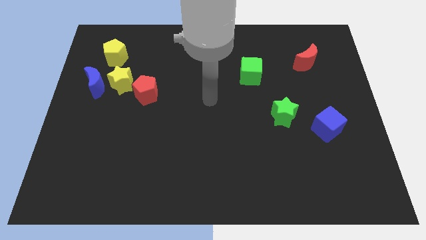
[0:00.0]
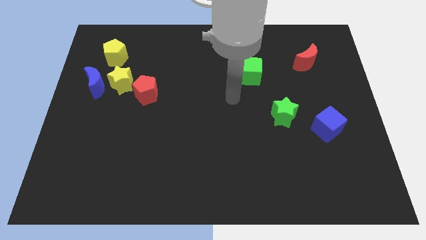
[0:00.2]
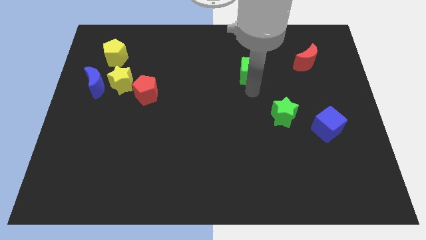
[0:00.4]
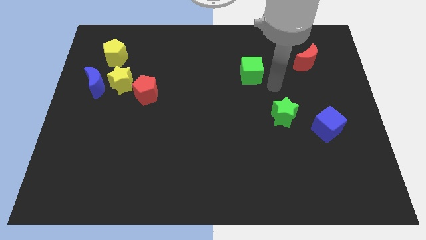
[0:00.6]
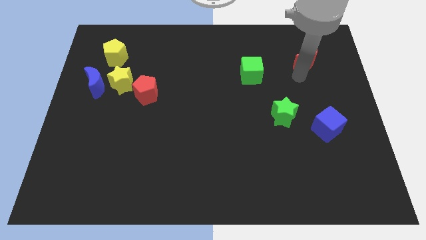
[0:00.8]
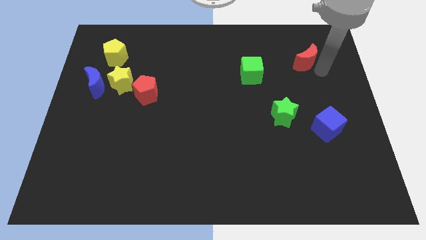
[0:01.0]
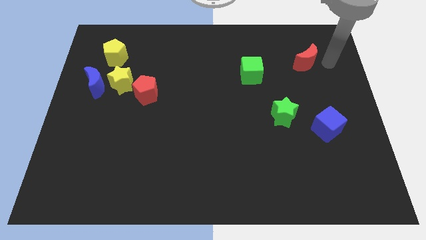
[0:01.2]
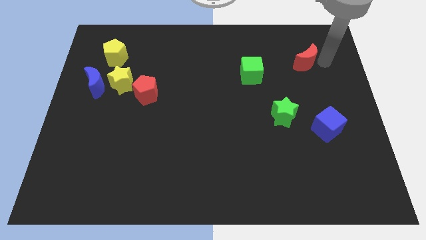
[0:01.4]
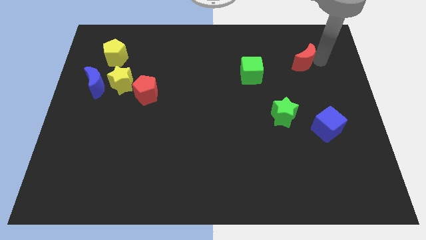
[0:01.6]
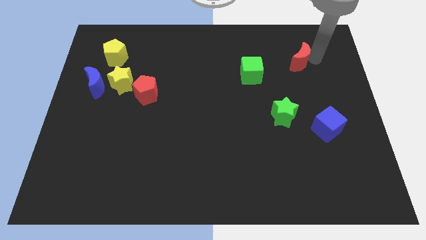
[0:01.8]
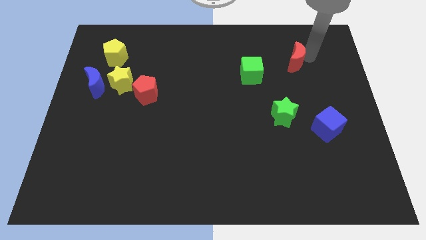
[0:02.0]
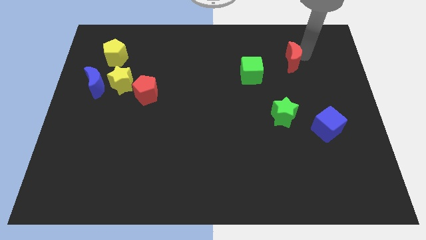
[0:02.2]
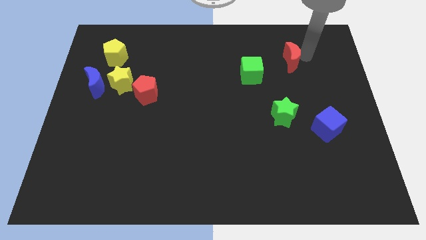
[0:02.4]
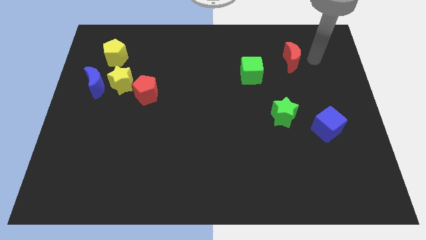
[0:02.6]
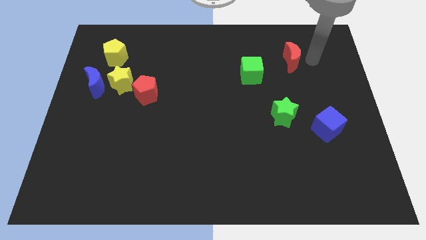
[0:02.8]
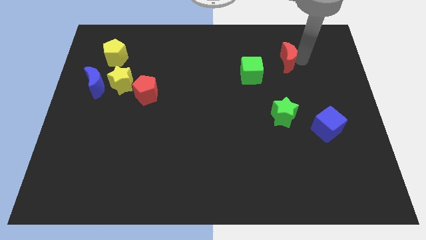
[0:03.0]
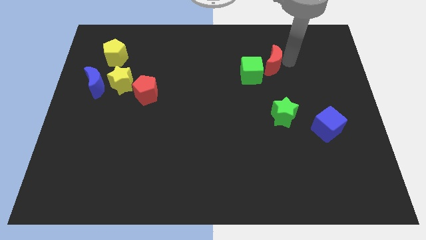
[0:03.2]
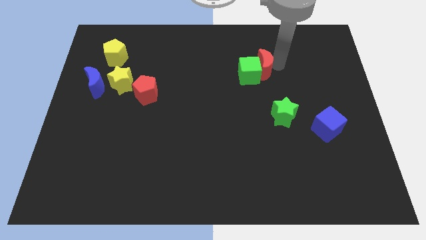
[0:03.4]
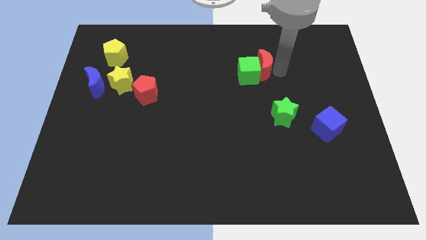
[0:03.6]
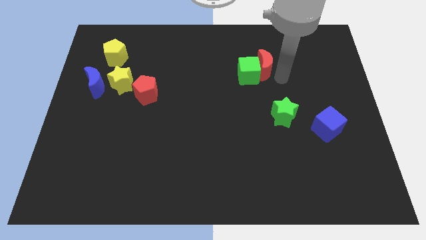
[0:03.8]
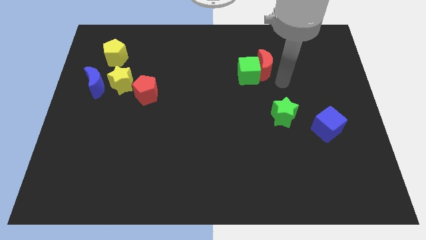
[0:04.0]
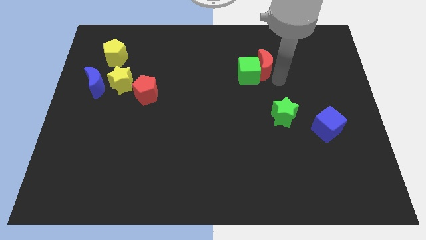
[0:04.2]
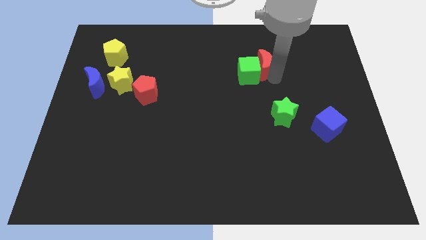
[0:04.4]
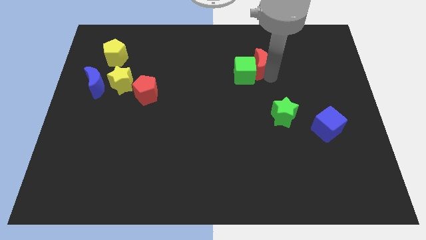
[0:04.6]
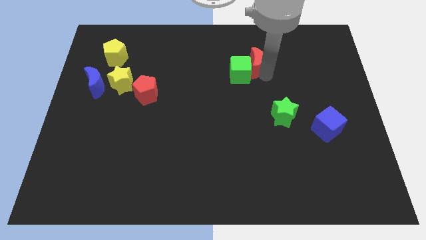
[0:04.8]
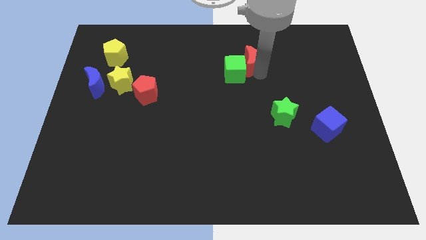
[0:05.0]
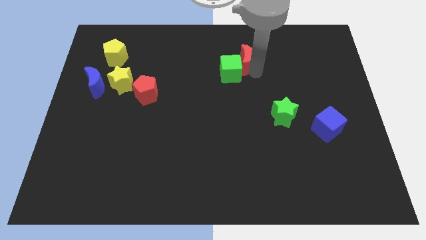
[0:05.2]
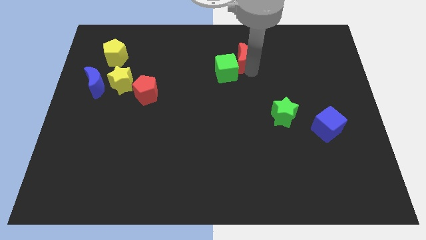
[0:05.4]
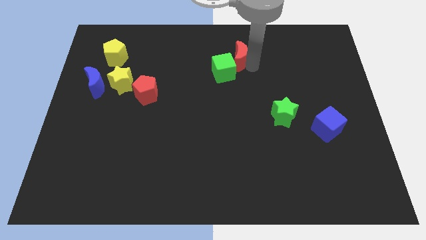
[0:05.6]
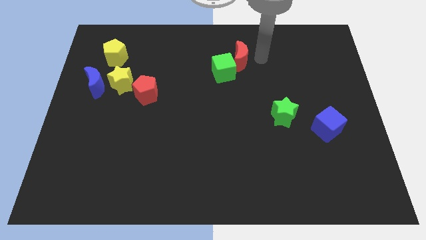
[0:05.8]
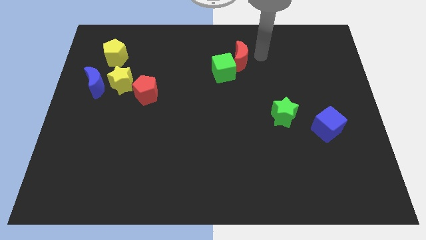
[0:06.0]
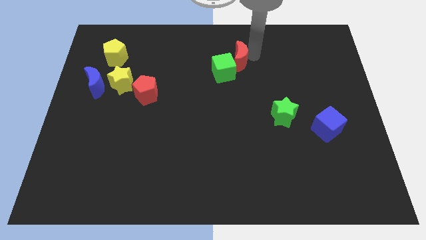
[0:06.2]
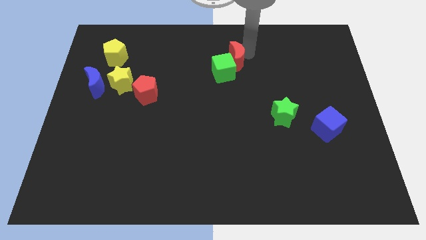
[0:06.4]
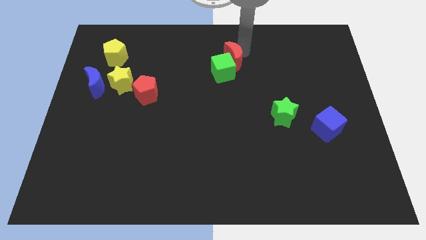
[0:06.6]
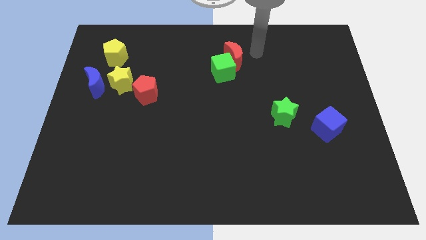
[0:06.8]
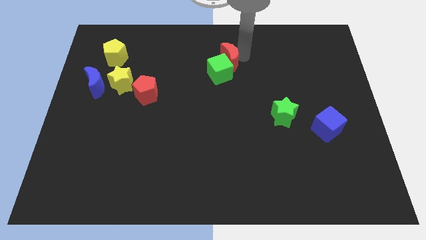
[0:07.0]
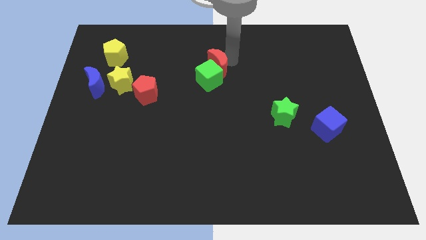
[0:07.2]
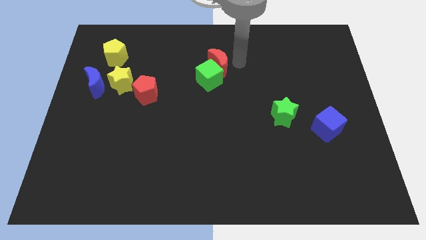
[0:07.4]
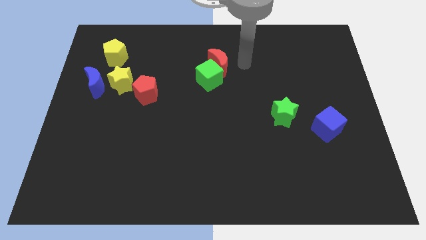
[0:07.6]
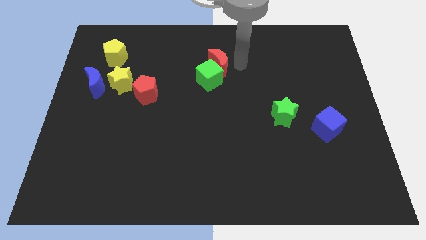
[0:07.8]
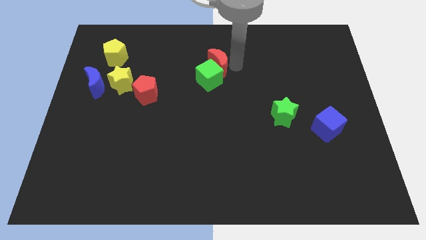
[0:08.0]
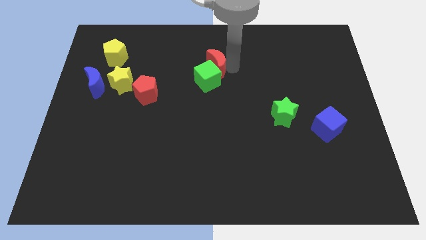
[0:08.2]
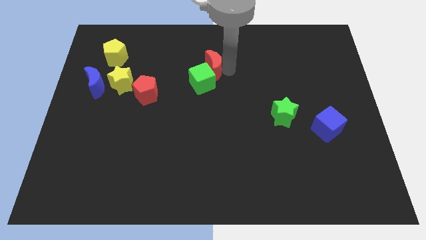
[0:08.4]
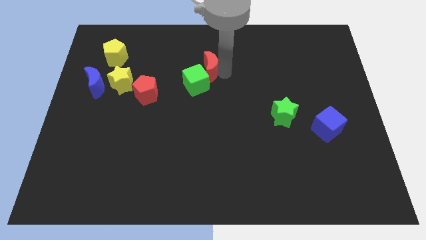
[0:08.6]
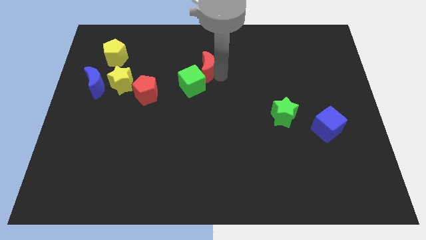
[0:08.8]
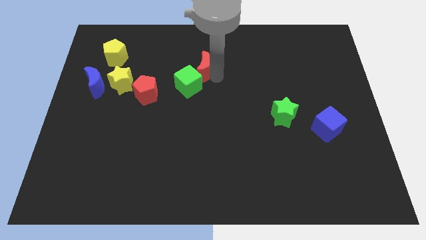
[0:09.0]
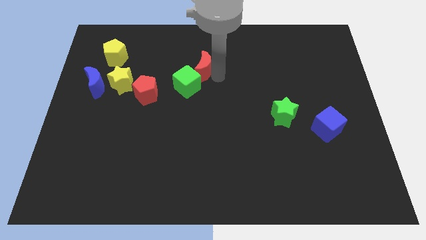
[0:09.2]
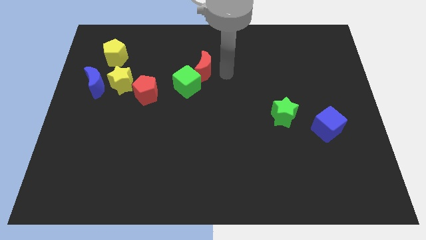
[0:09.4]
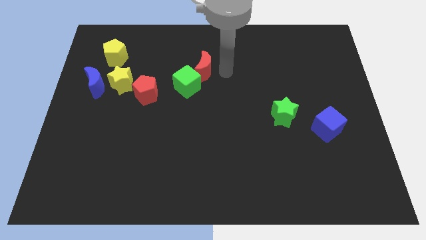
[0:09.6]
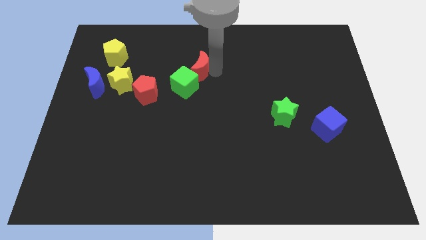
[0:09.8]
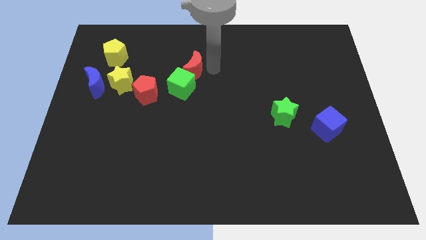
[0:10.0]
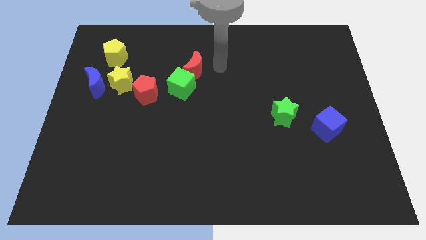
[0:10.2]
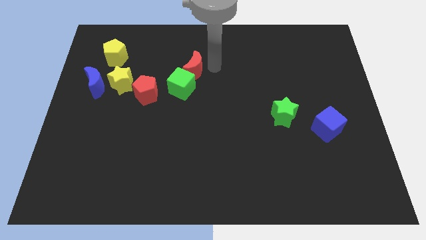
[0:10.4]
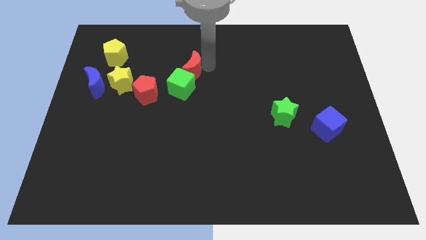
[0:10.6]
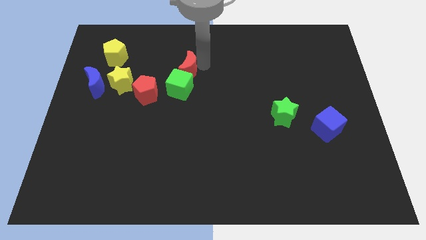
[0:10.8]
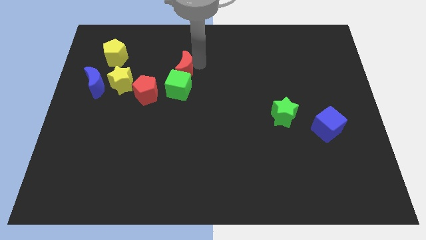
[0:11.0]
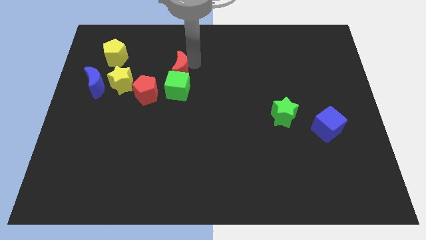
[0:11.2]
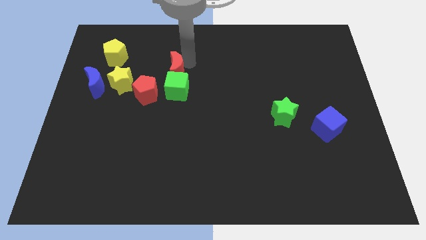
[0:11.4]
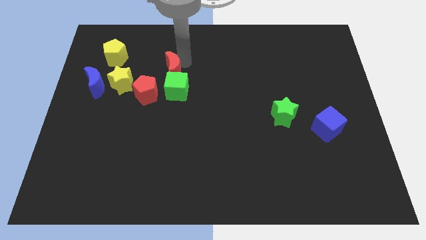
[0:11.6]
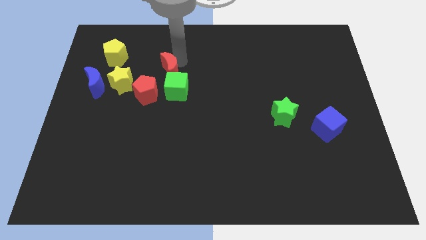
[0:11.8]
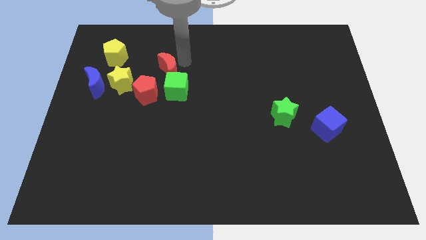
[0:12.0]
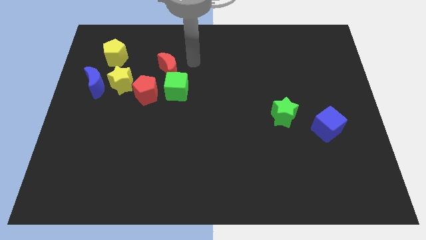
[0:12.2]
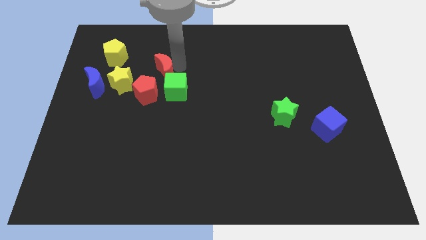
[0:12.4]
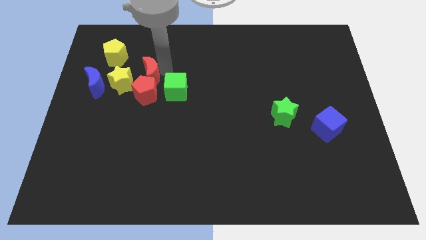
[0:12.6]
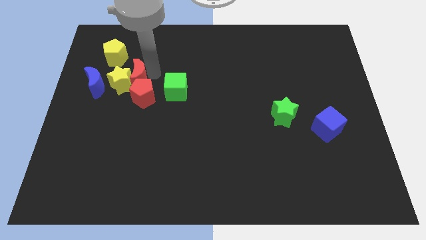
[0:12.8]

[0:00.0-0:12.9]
move the red moon next to the yellow star

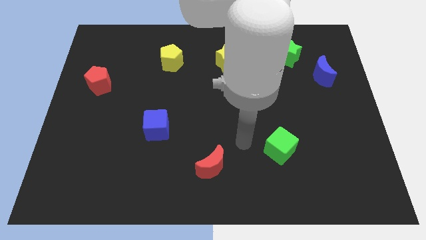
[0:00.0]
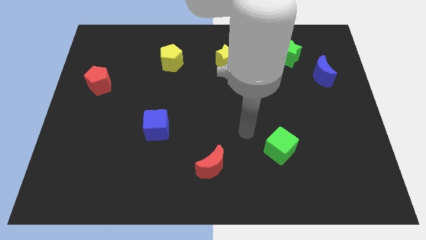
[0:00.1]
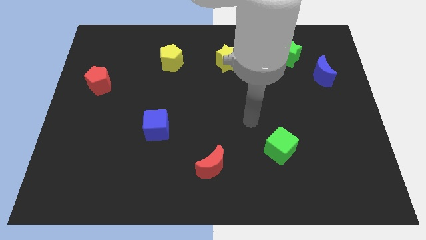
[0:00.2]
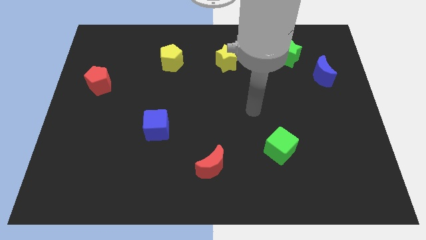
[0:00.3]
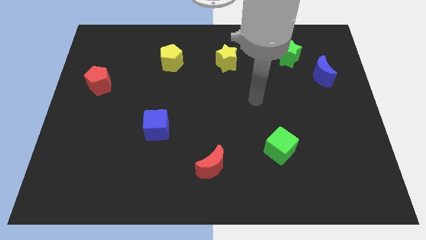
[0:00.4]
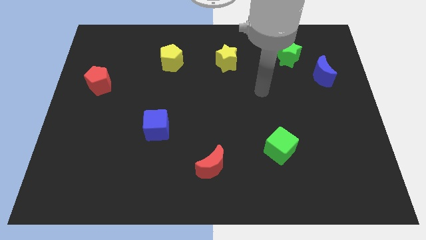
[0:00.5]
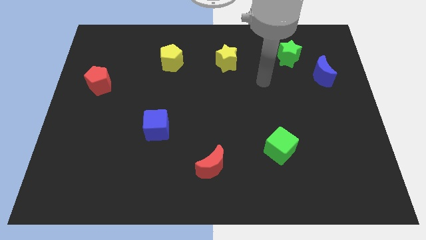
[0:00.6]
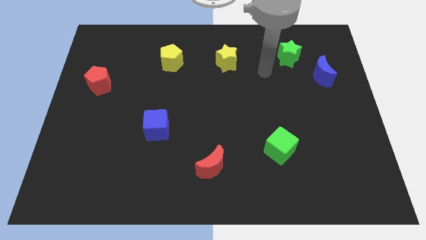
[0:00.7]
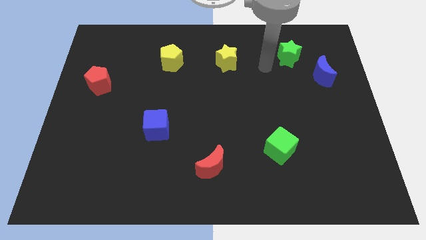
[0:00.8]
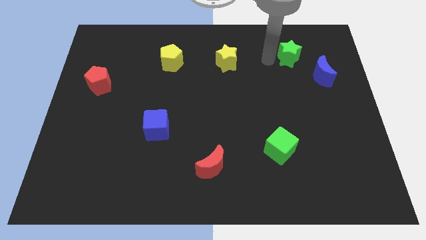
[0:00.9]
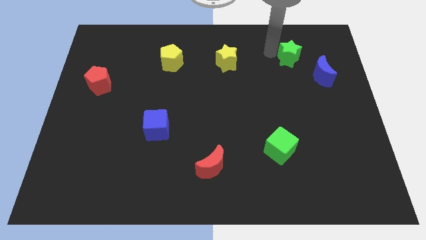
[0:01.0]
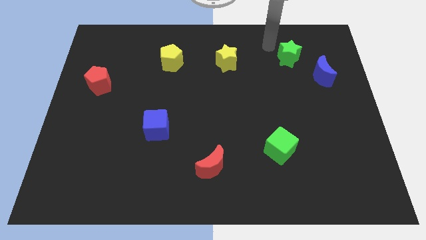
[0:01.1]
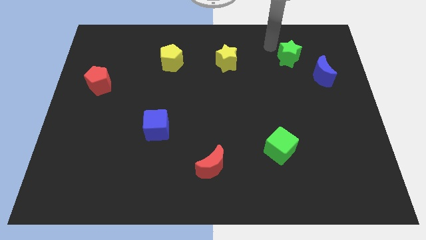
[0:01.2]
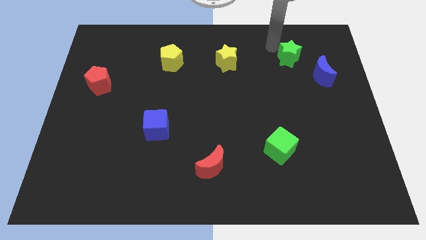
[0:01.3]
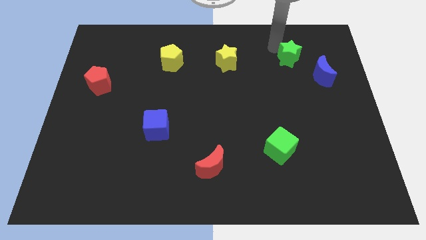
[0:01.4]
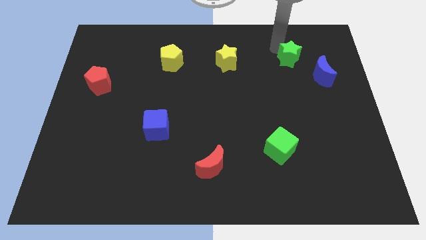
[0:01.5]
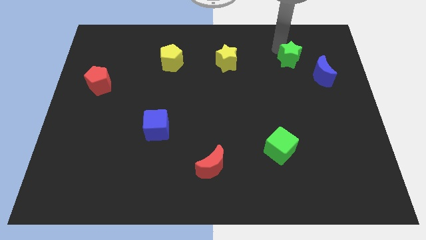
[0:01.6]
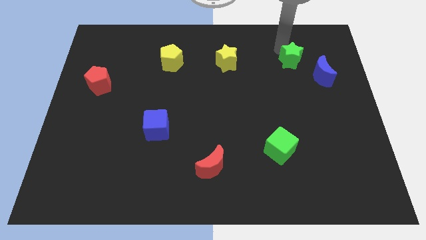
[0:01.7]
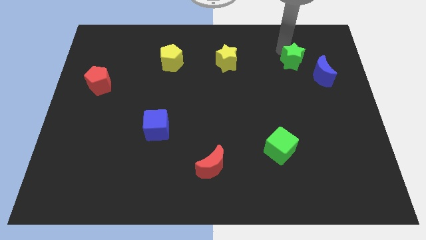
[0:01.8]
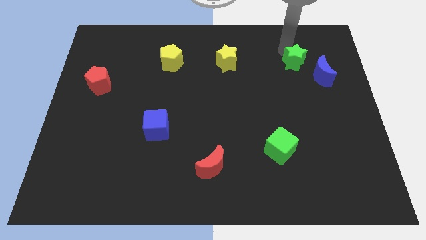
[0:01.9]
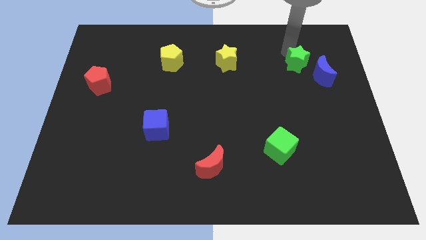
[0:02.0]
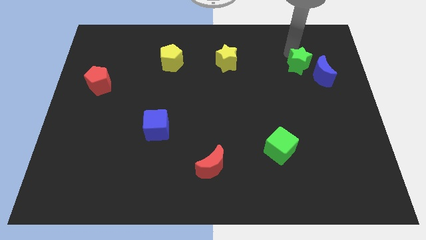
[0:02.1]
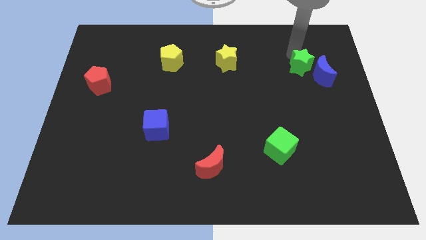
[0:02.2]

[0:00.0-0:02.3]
put the green star towards the blue moon
